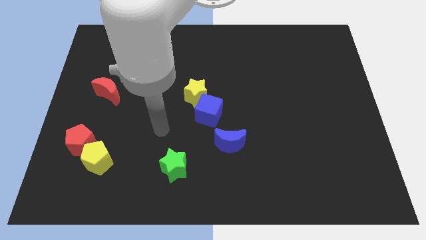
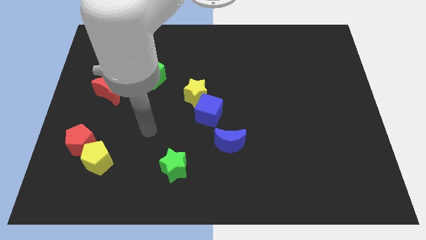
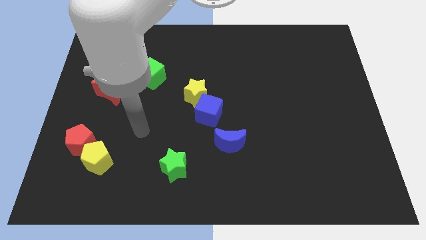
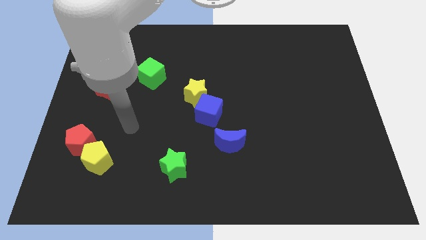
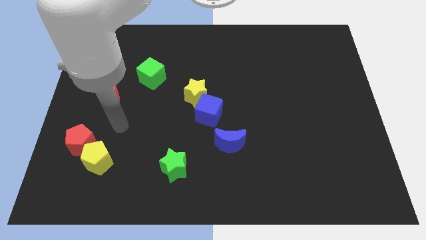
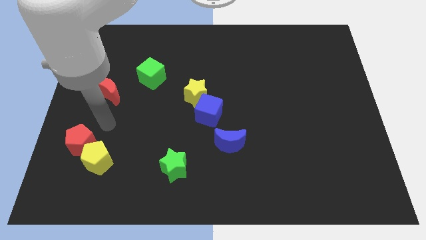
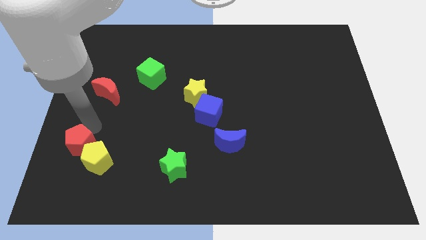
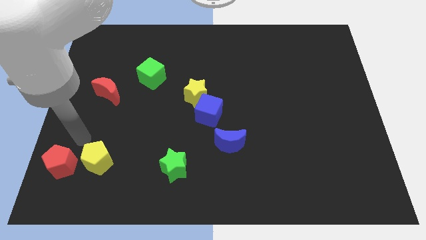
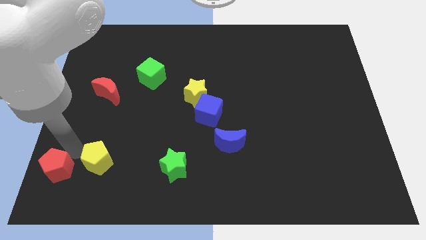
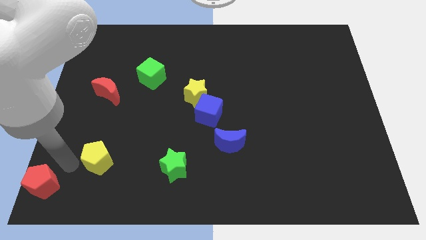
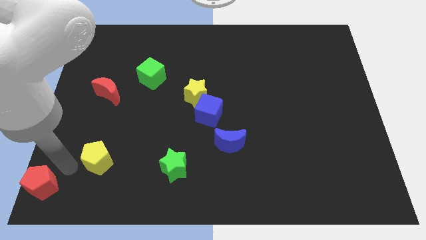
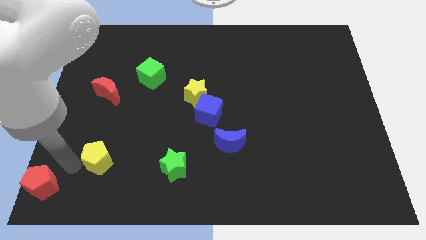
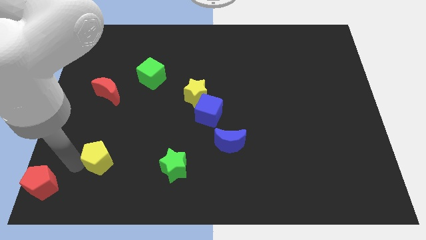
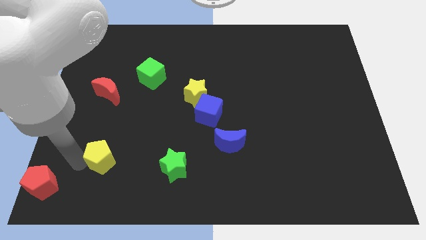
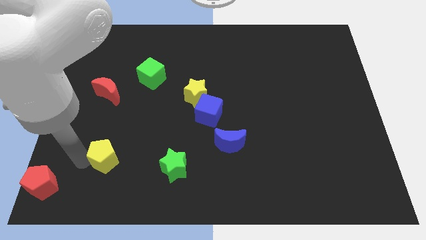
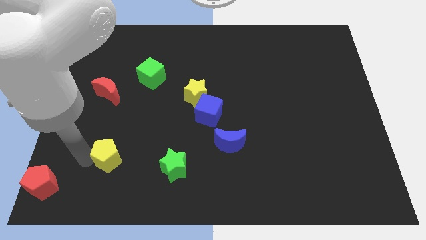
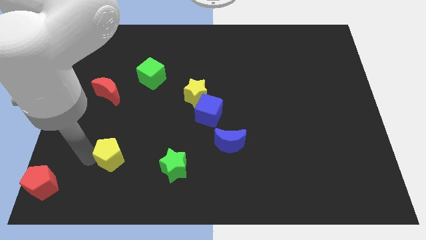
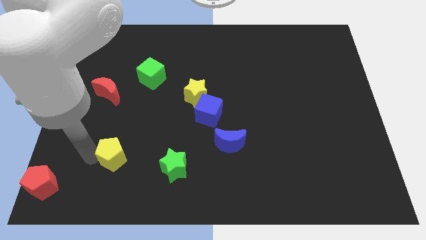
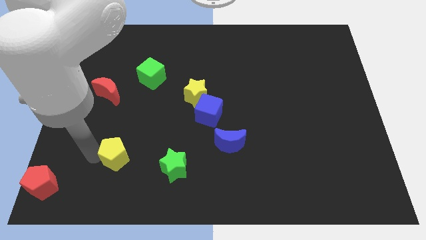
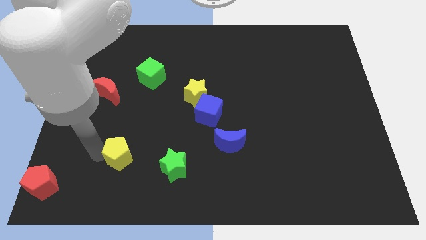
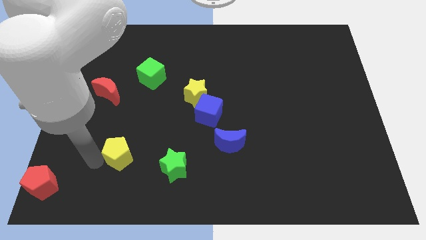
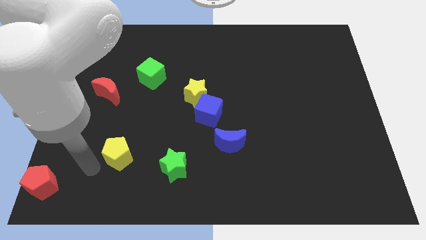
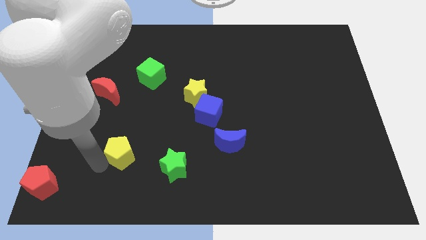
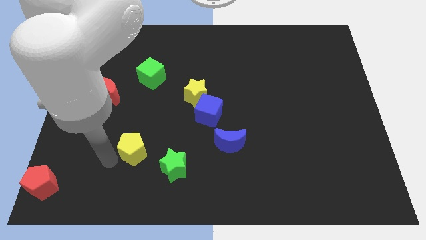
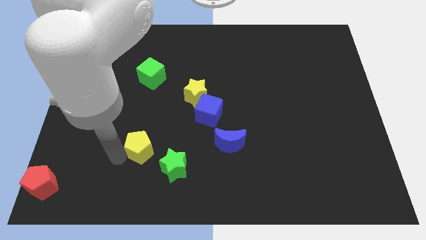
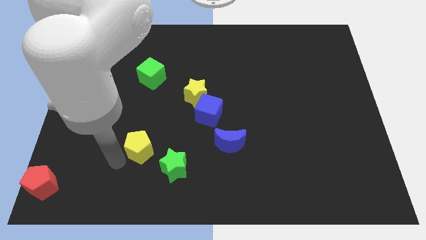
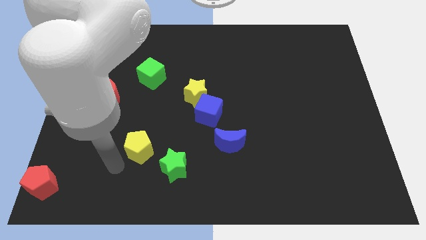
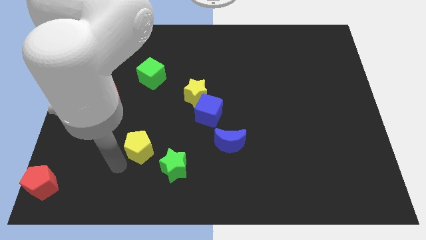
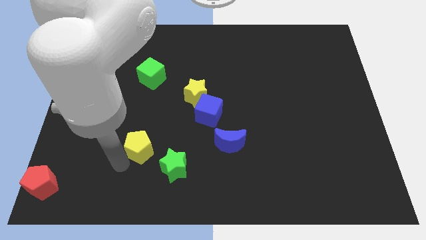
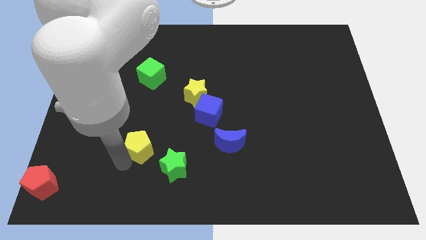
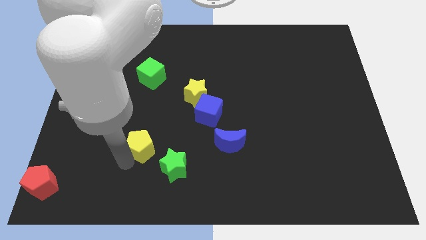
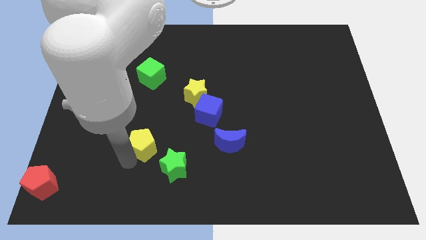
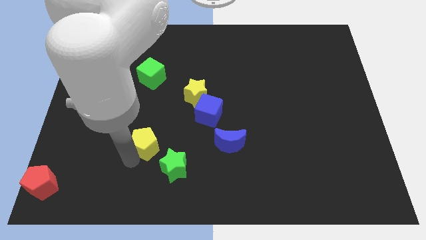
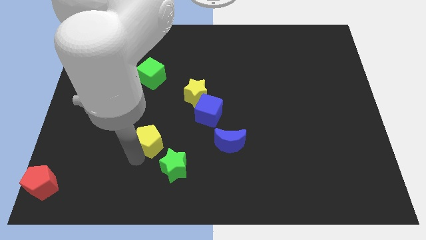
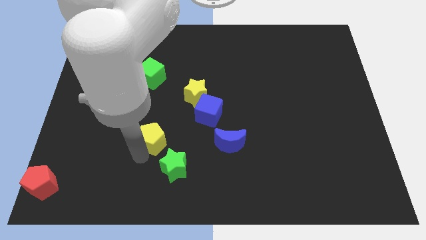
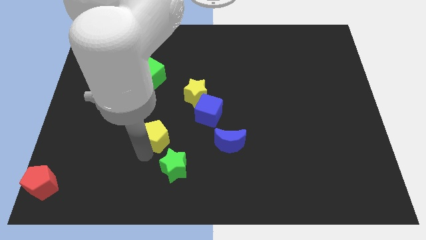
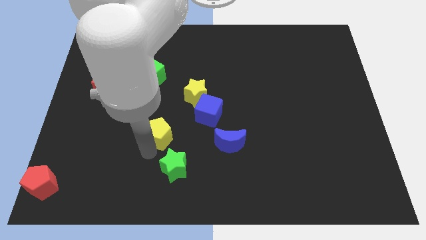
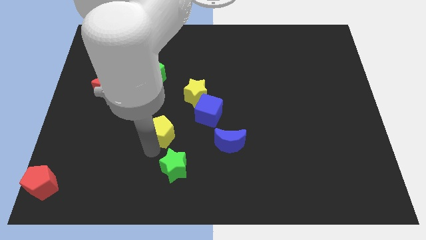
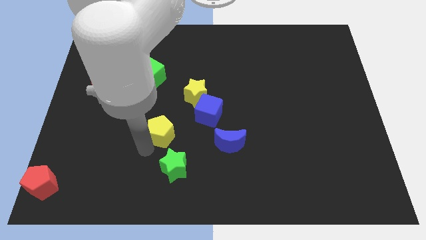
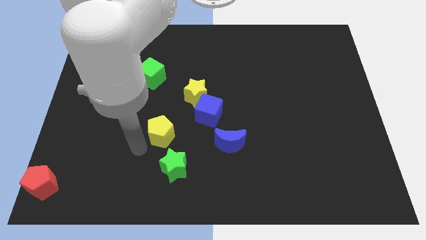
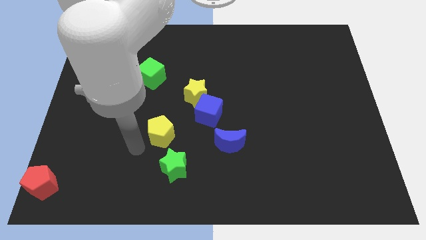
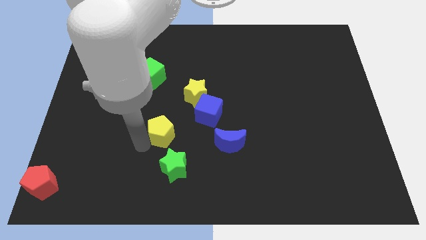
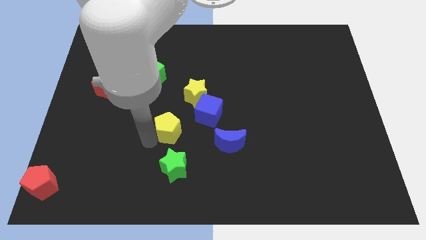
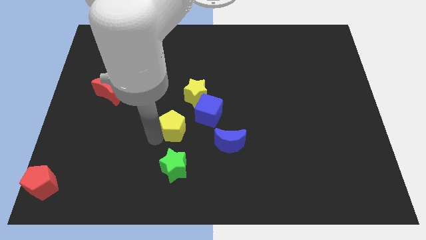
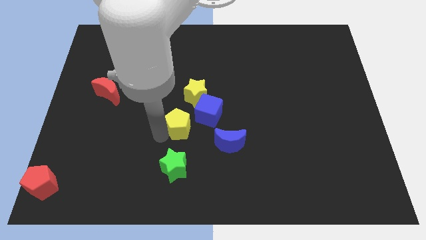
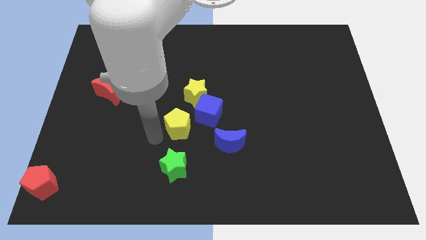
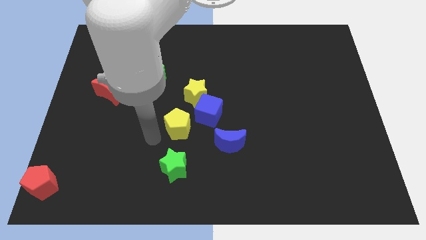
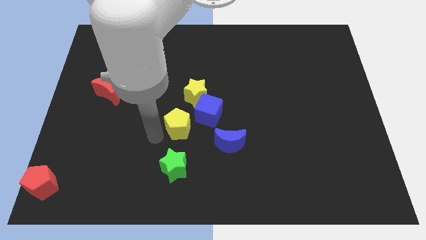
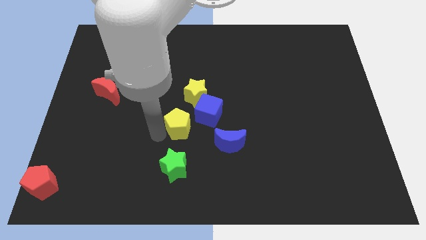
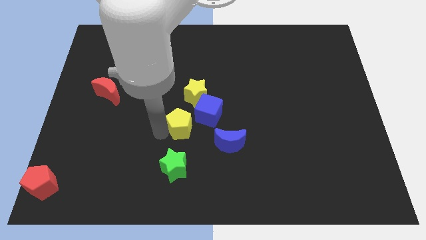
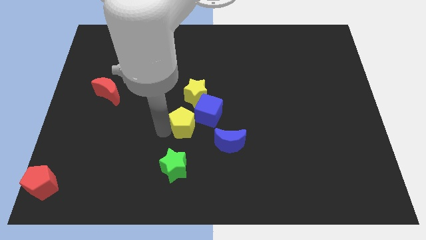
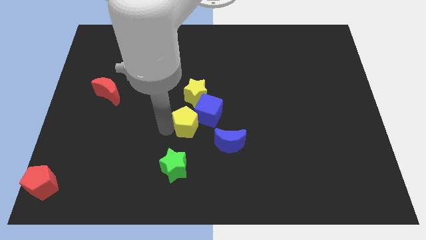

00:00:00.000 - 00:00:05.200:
move the yellow pentagon next to the blue cube

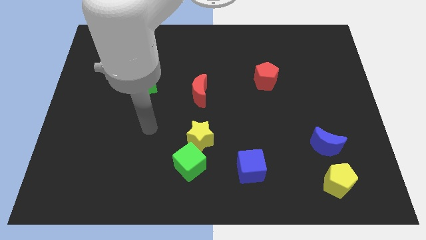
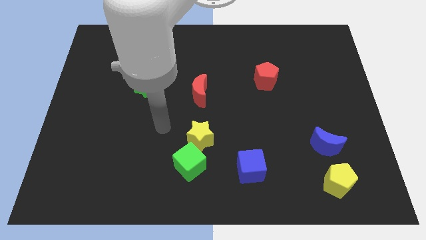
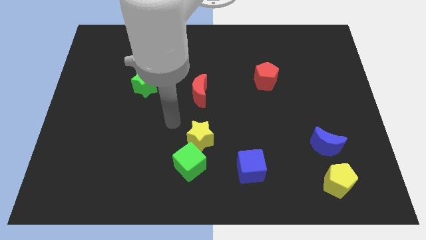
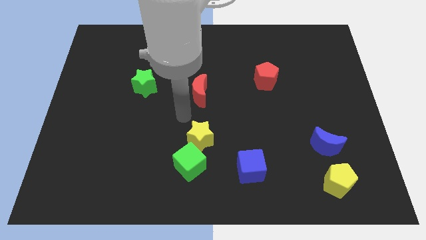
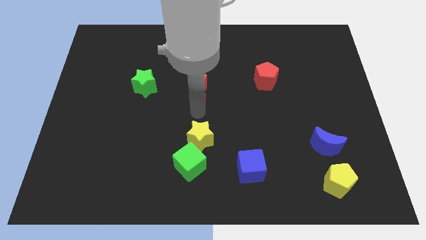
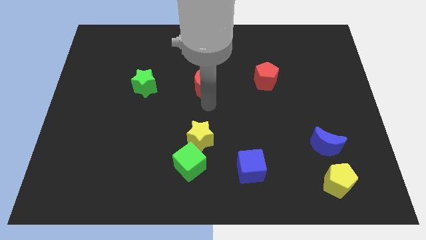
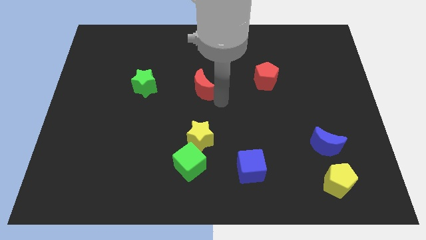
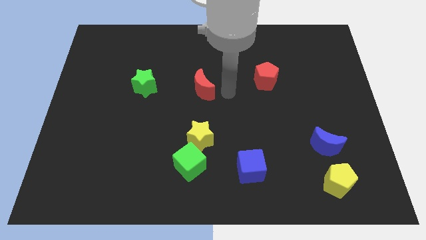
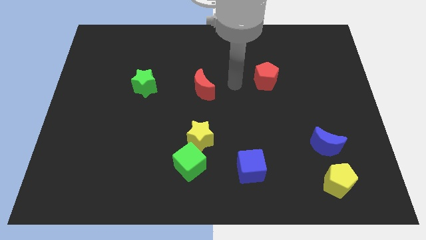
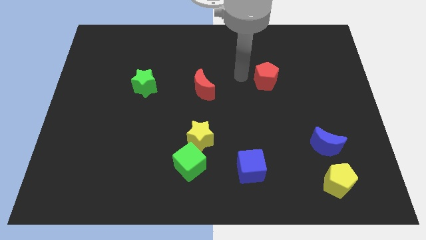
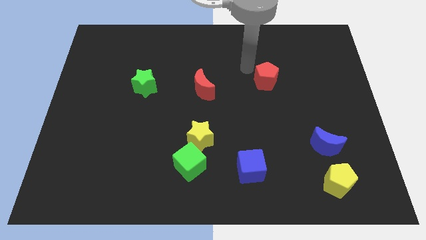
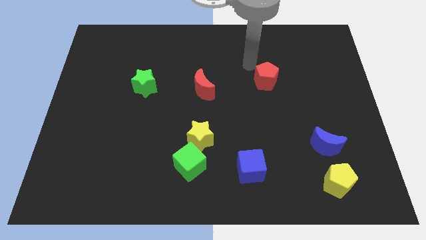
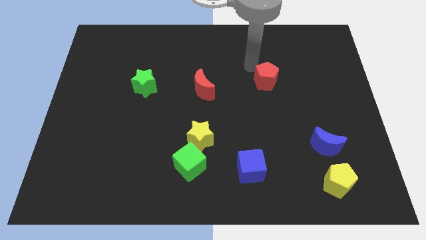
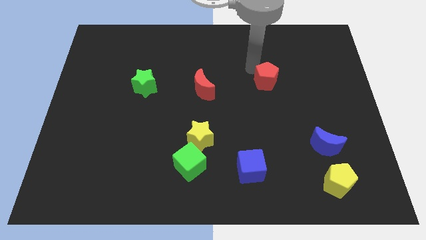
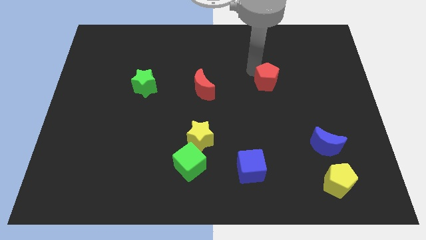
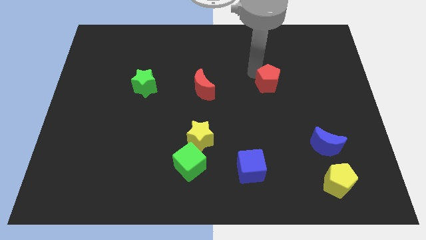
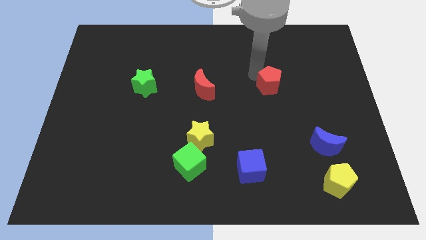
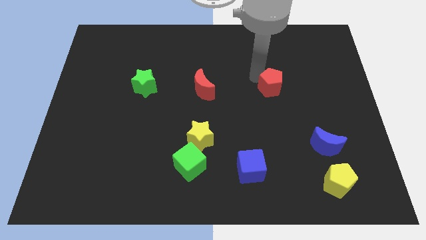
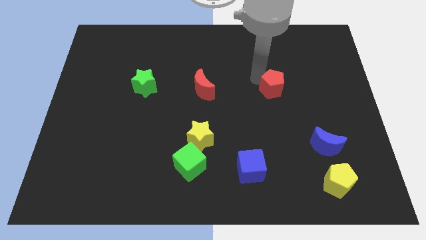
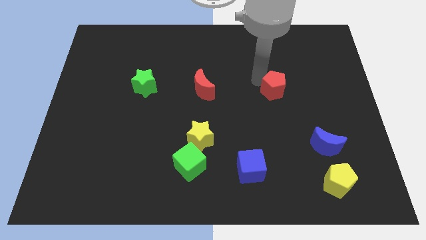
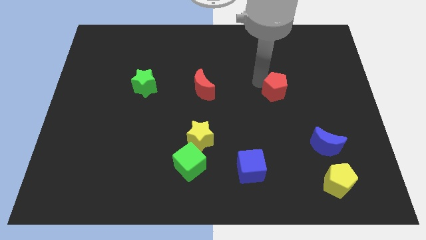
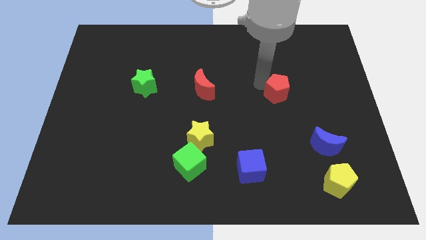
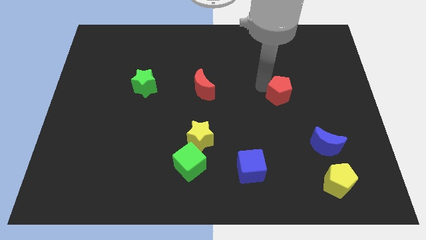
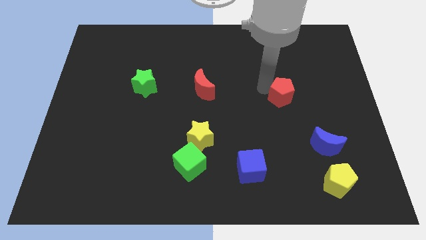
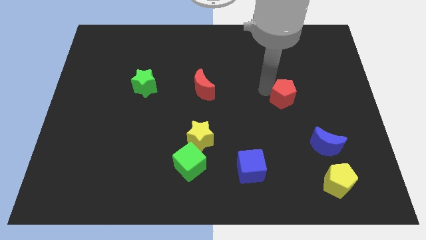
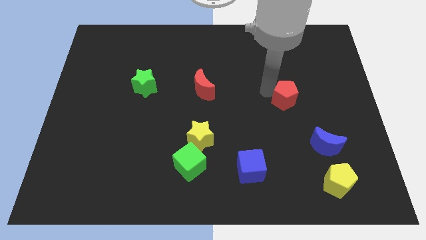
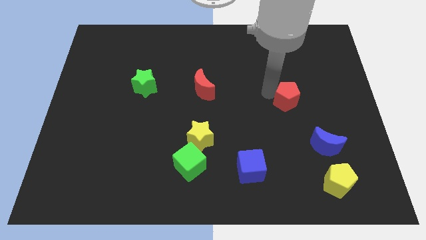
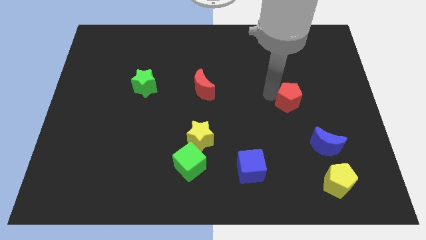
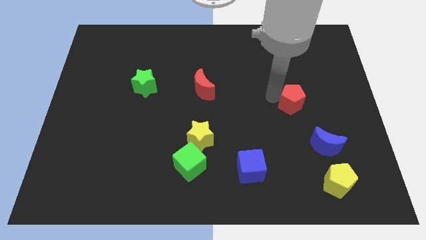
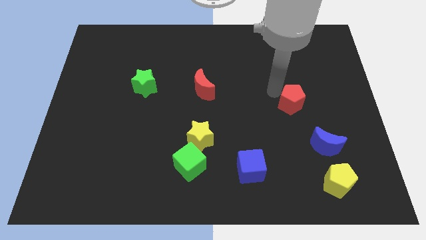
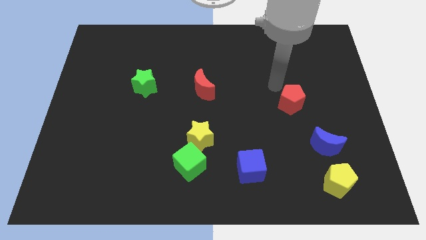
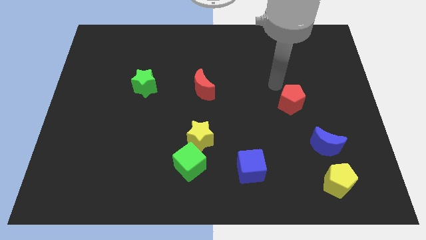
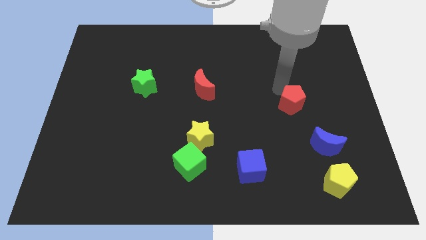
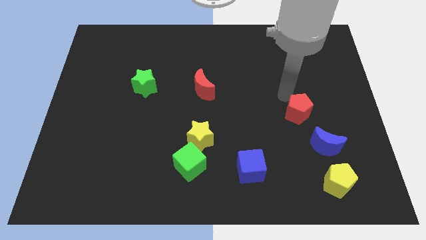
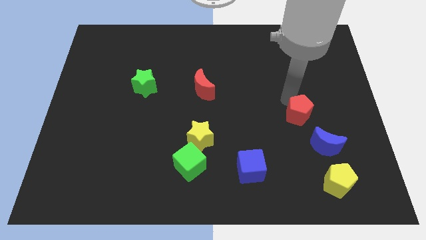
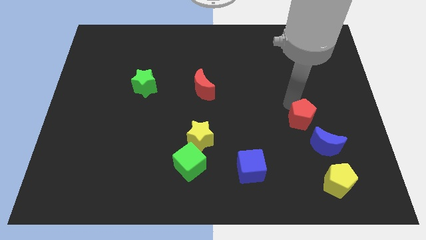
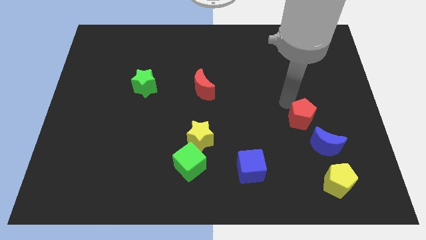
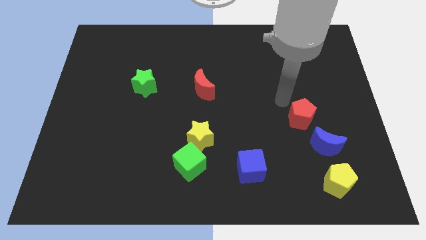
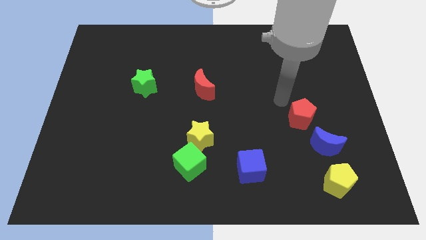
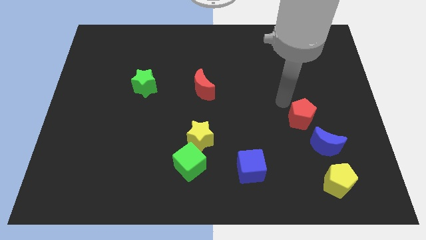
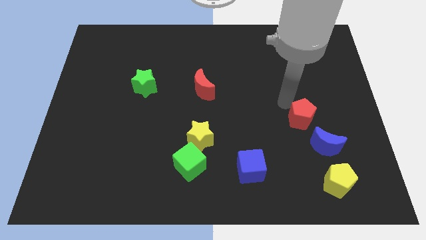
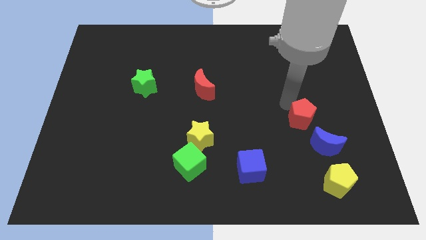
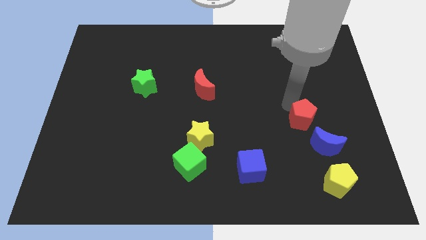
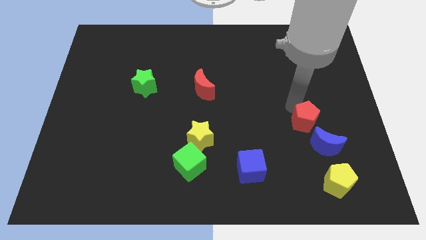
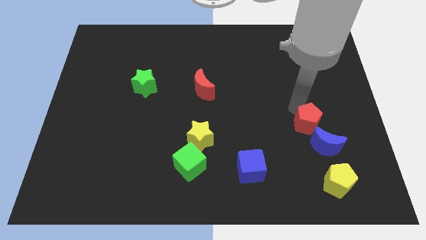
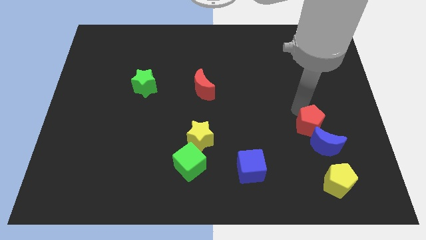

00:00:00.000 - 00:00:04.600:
move the red pentagon to the blue moon
